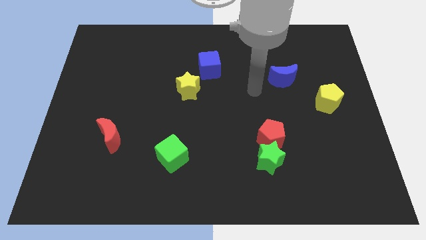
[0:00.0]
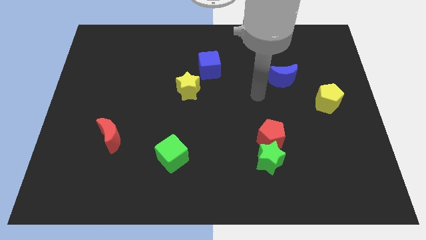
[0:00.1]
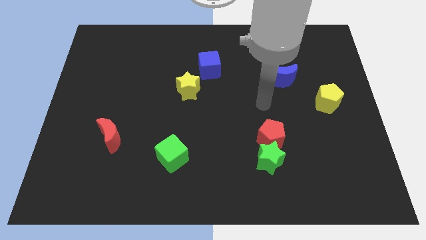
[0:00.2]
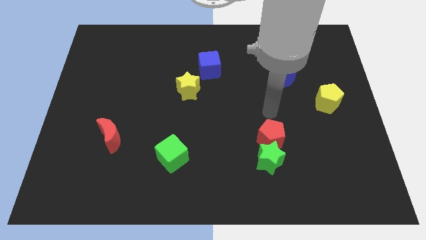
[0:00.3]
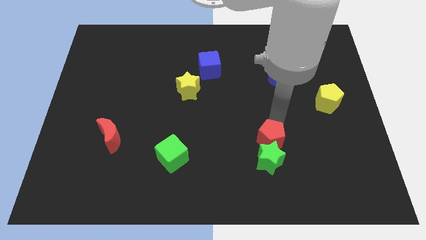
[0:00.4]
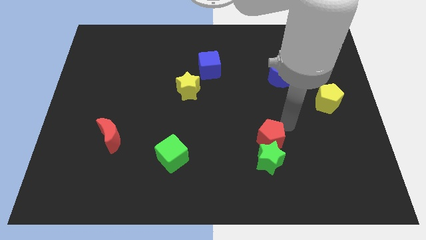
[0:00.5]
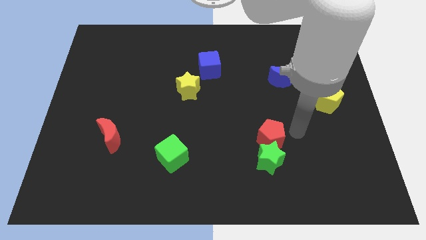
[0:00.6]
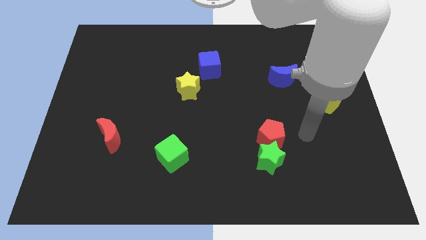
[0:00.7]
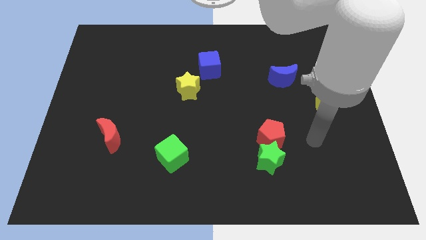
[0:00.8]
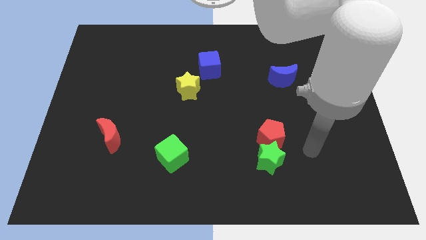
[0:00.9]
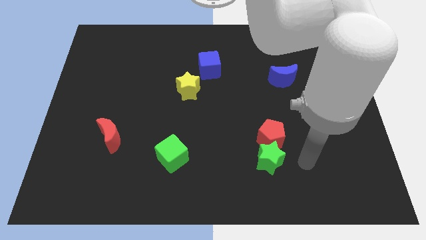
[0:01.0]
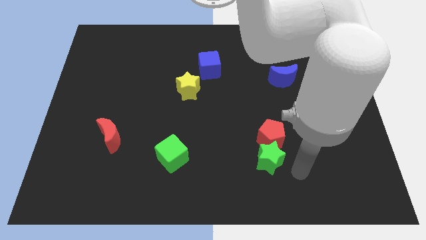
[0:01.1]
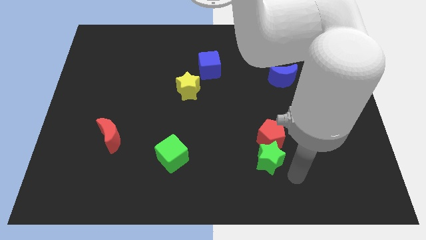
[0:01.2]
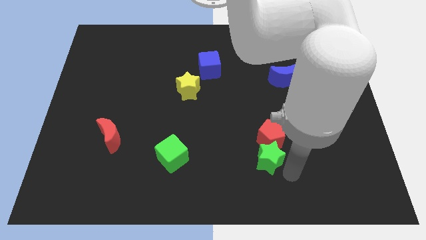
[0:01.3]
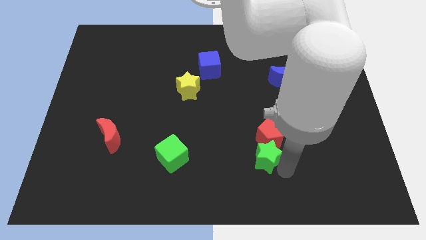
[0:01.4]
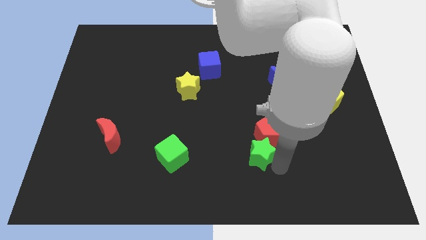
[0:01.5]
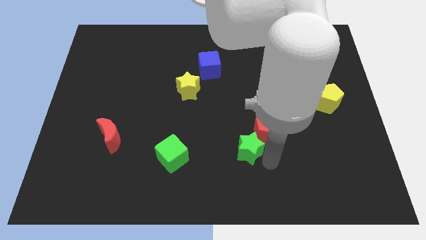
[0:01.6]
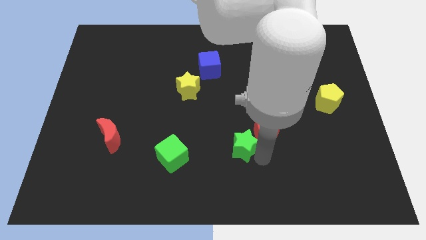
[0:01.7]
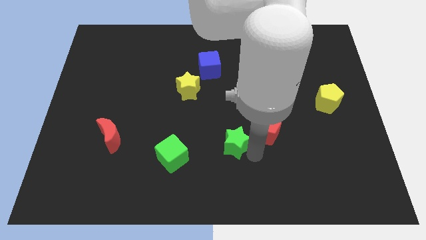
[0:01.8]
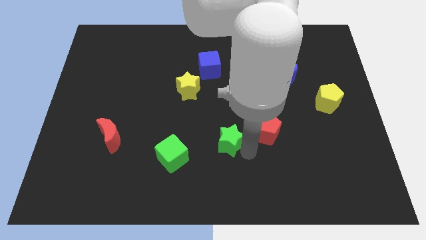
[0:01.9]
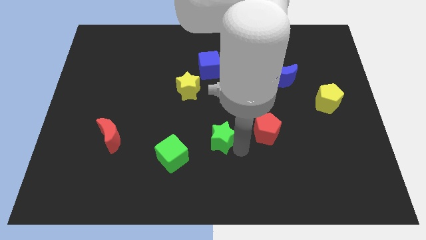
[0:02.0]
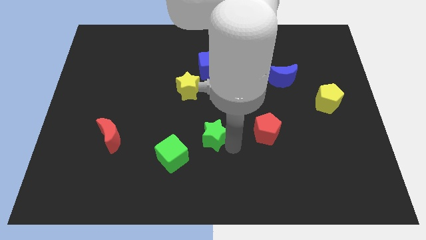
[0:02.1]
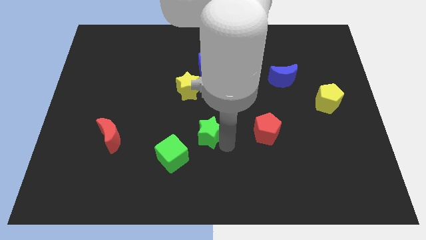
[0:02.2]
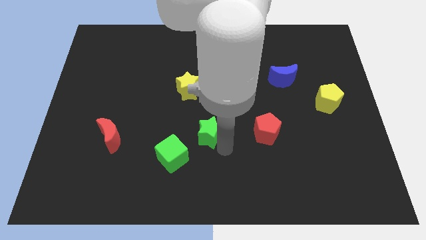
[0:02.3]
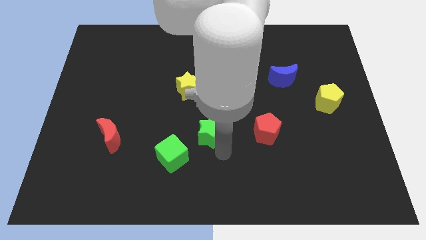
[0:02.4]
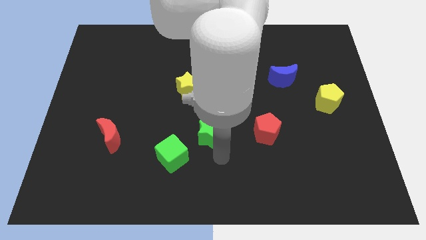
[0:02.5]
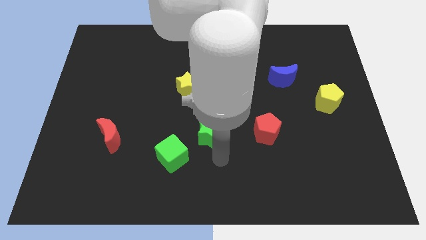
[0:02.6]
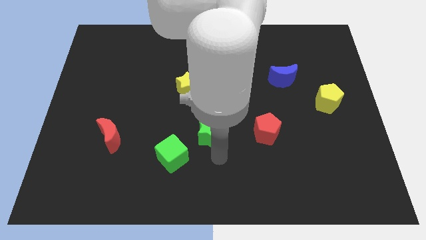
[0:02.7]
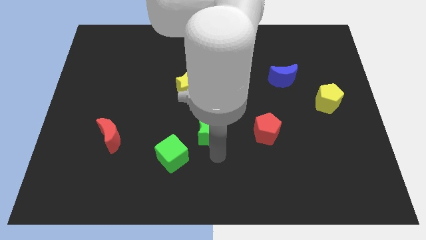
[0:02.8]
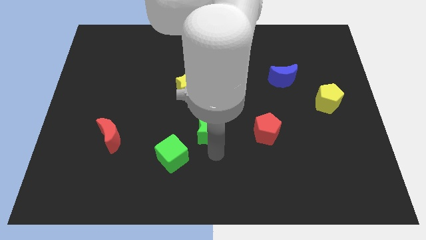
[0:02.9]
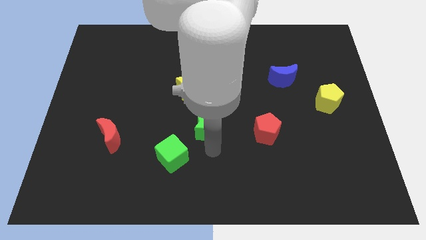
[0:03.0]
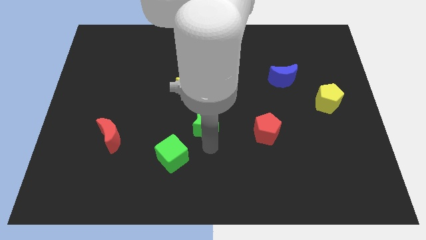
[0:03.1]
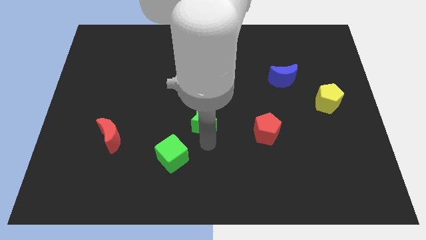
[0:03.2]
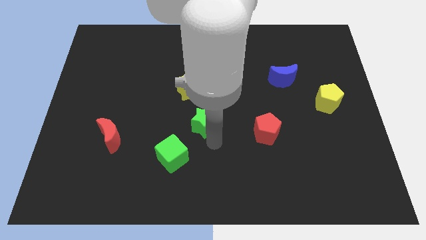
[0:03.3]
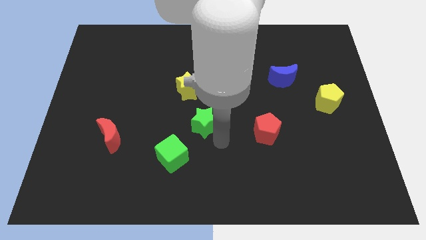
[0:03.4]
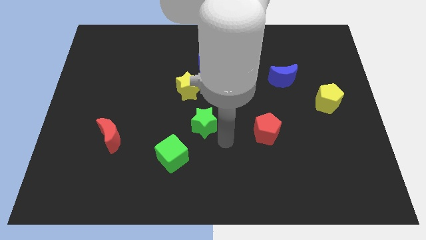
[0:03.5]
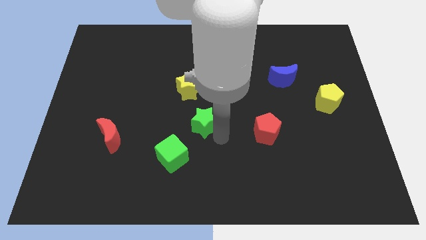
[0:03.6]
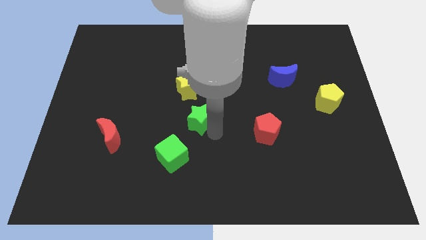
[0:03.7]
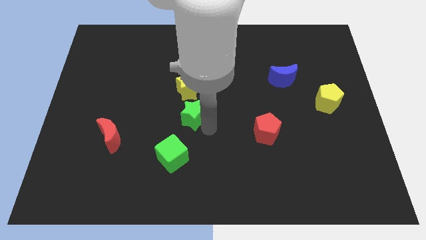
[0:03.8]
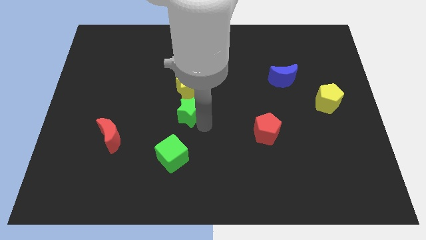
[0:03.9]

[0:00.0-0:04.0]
push the green star up and left diagonally

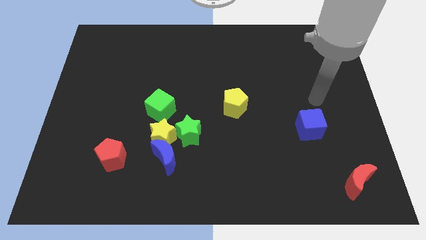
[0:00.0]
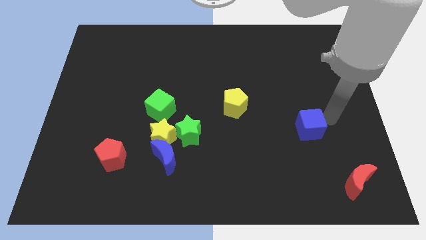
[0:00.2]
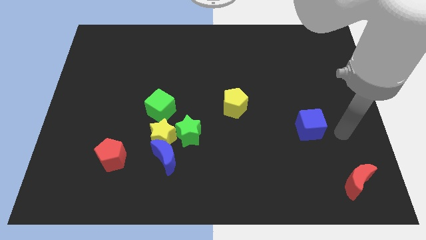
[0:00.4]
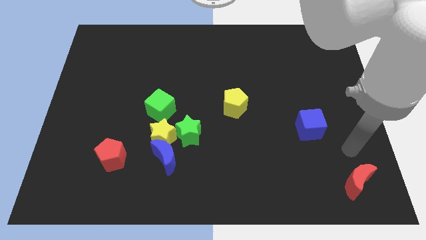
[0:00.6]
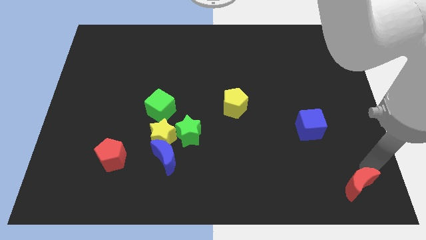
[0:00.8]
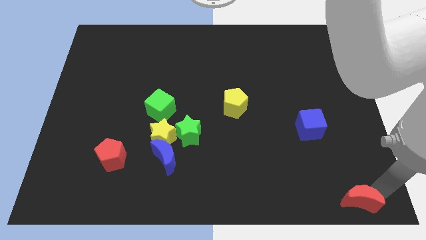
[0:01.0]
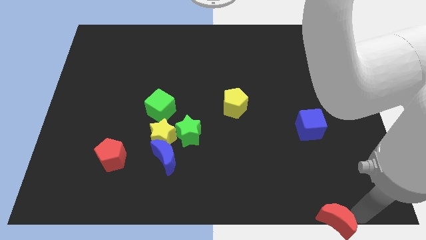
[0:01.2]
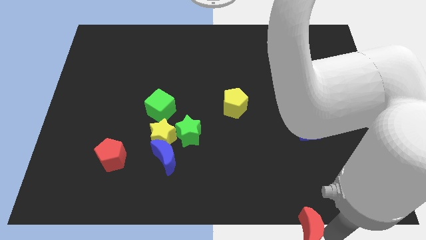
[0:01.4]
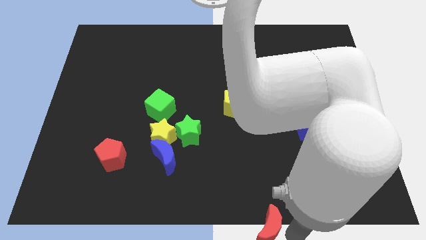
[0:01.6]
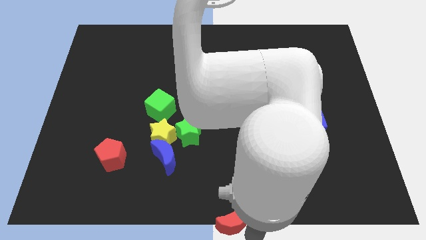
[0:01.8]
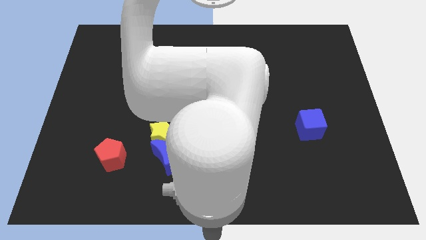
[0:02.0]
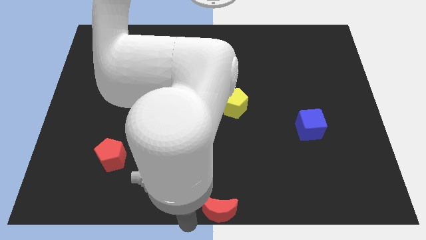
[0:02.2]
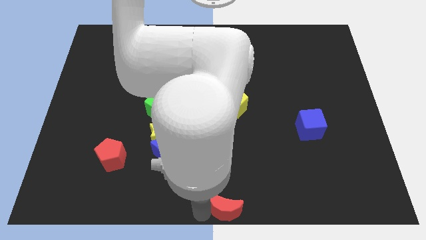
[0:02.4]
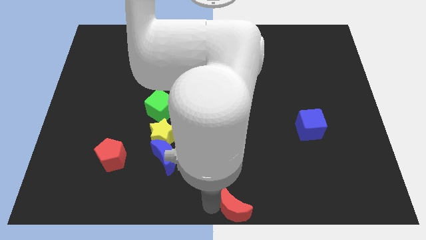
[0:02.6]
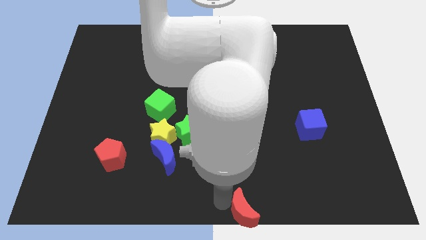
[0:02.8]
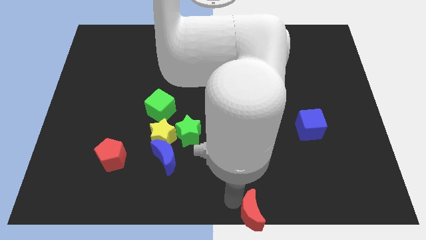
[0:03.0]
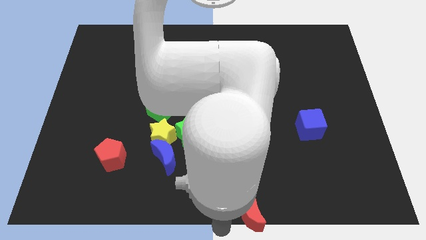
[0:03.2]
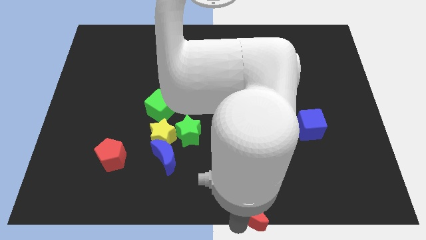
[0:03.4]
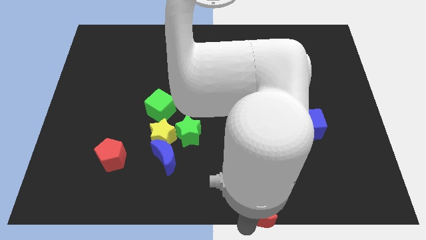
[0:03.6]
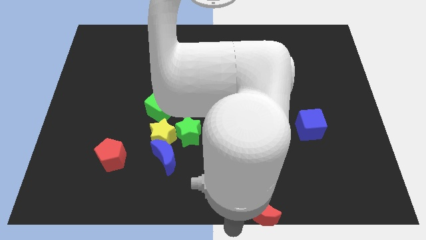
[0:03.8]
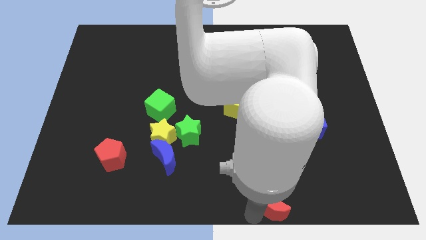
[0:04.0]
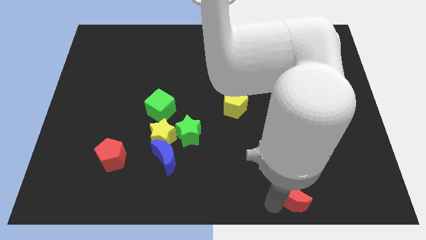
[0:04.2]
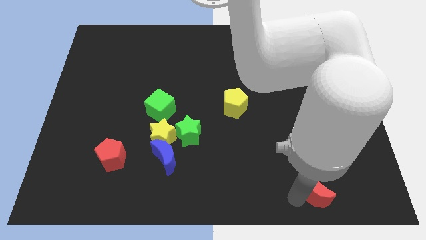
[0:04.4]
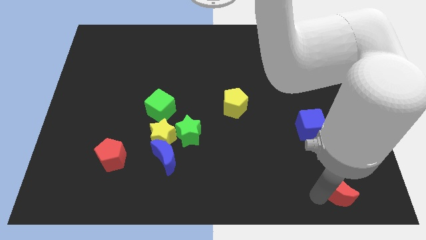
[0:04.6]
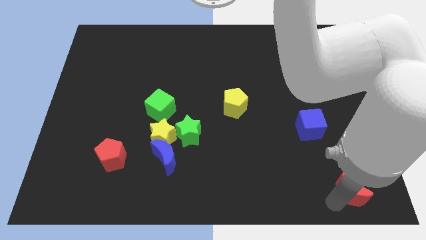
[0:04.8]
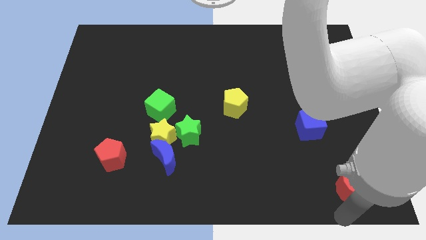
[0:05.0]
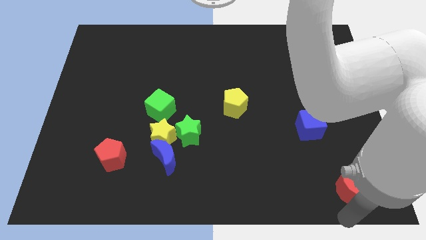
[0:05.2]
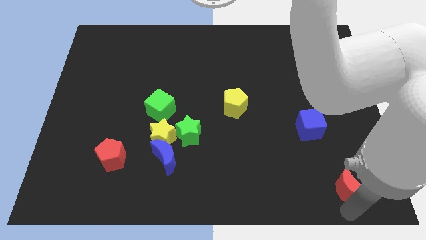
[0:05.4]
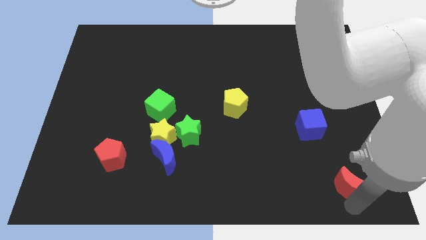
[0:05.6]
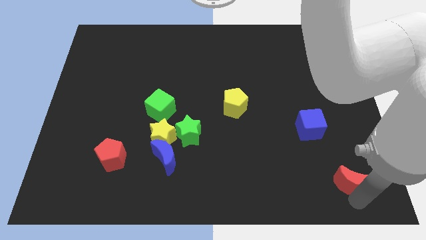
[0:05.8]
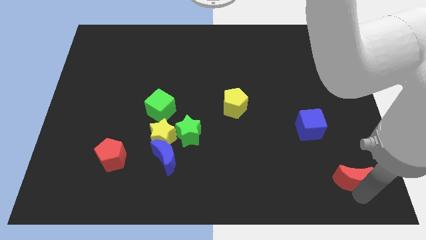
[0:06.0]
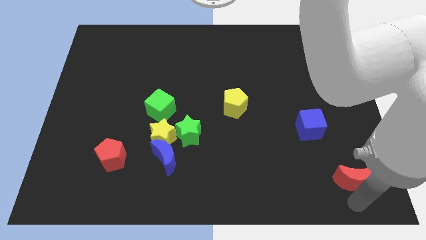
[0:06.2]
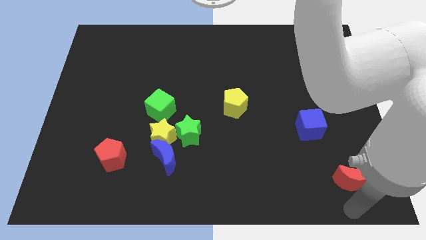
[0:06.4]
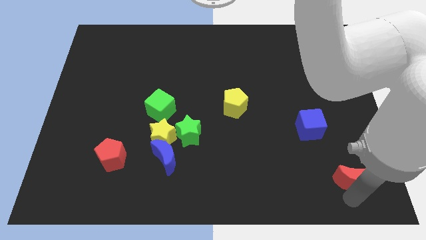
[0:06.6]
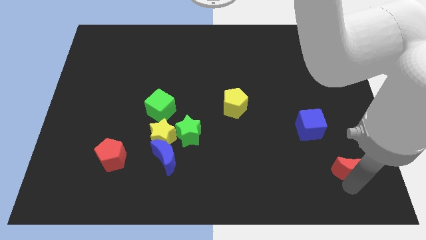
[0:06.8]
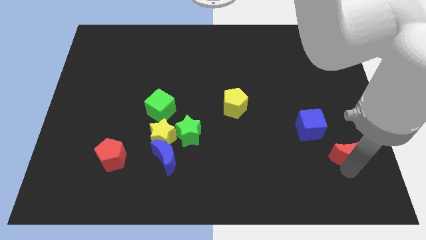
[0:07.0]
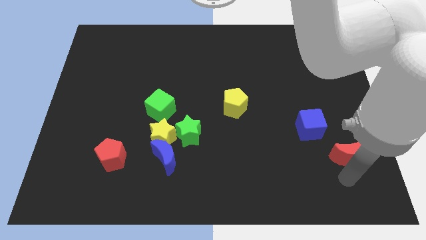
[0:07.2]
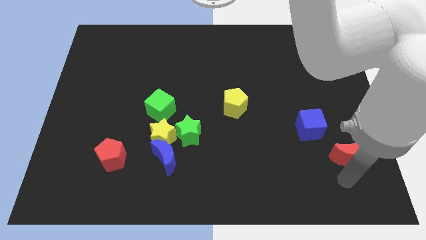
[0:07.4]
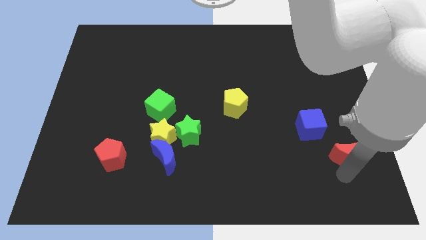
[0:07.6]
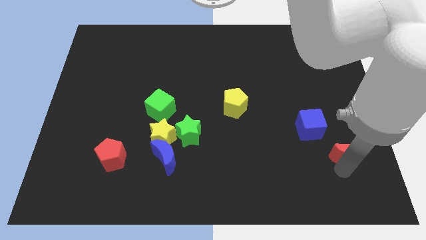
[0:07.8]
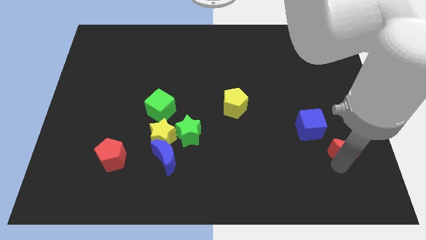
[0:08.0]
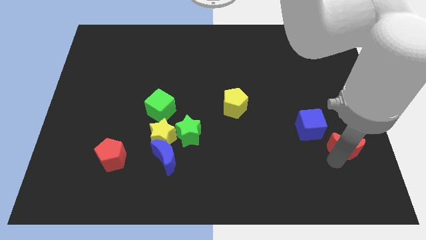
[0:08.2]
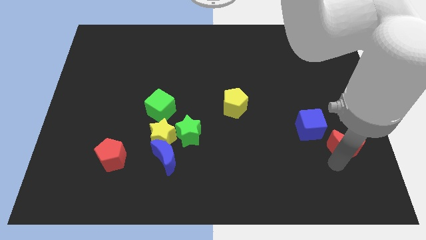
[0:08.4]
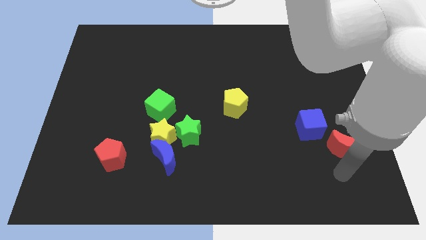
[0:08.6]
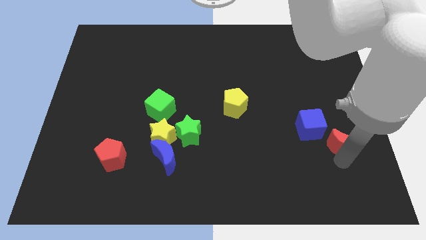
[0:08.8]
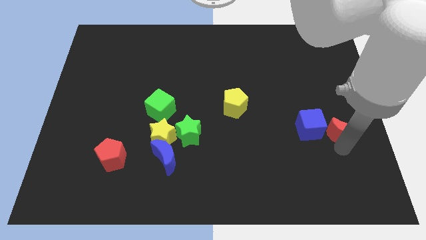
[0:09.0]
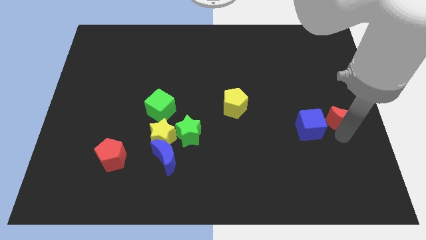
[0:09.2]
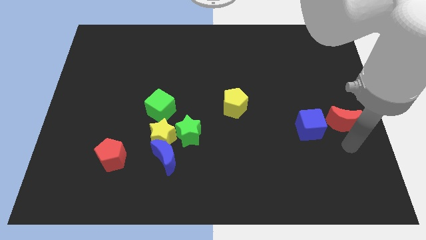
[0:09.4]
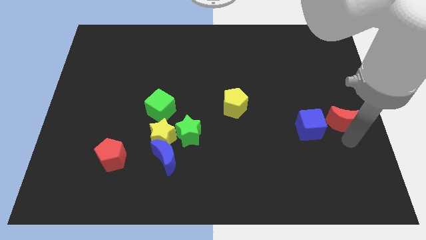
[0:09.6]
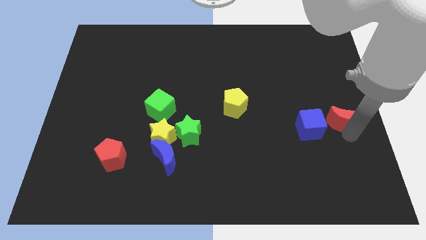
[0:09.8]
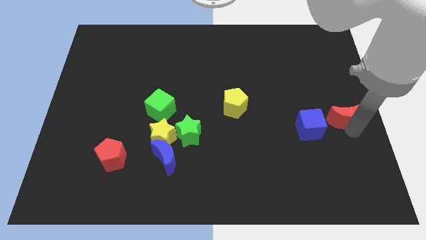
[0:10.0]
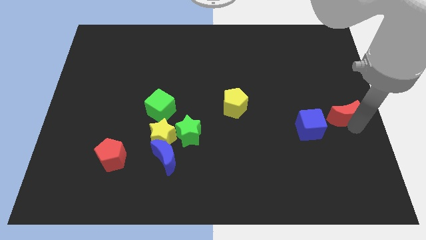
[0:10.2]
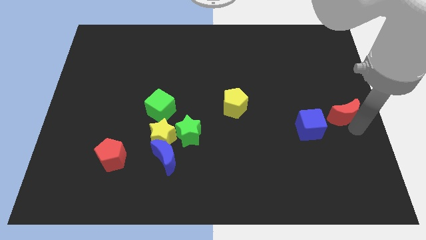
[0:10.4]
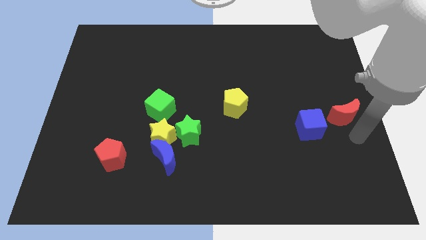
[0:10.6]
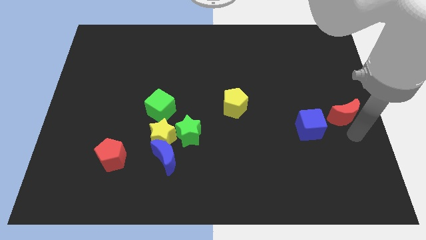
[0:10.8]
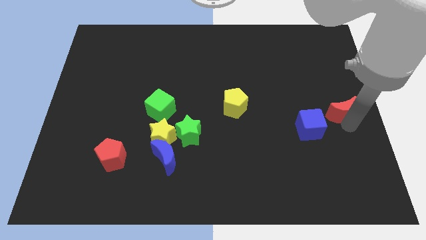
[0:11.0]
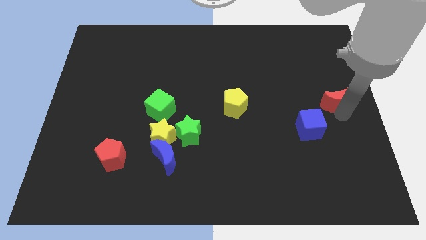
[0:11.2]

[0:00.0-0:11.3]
move the red moon upwards
